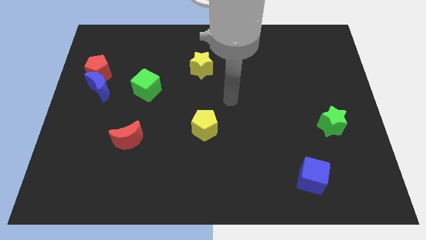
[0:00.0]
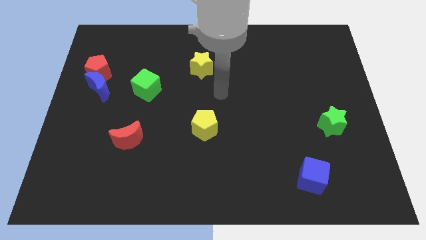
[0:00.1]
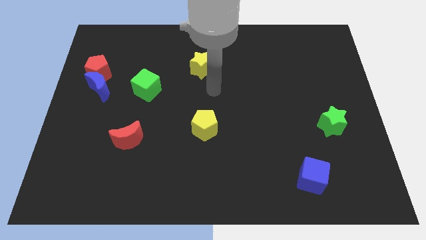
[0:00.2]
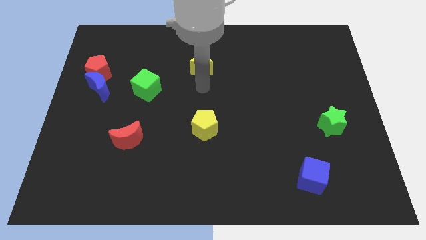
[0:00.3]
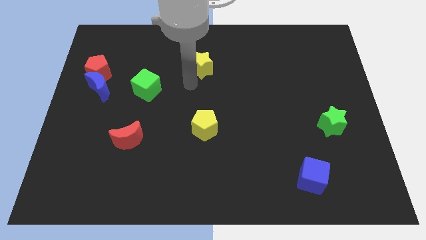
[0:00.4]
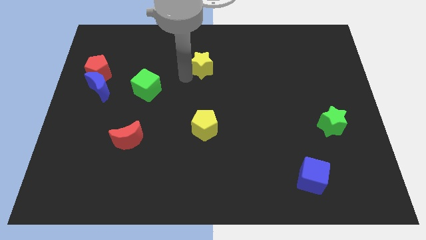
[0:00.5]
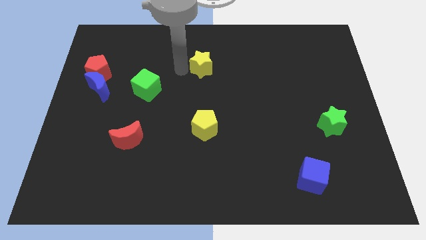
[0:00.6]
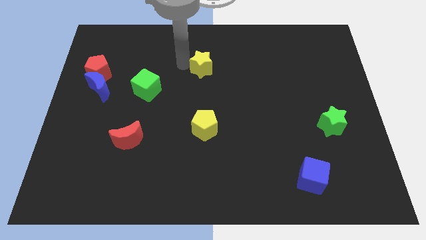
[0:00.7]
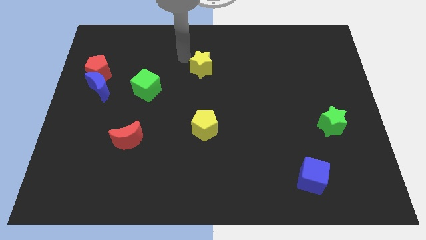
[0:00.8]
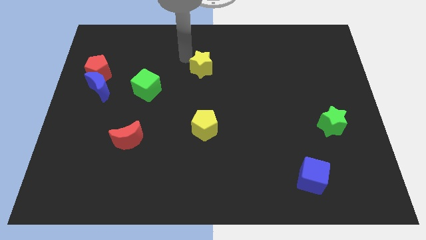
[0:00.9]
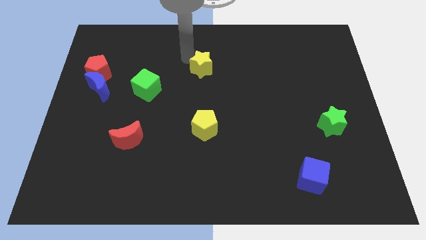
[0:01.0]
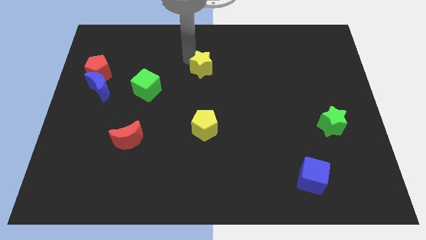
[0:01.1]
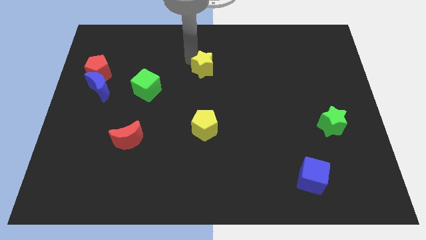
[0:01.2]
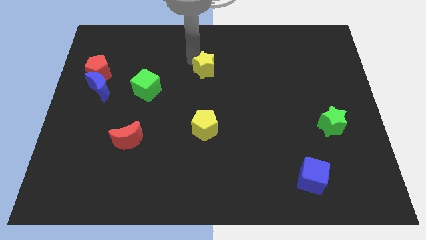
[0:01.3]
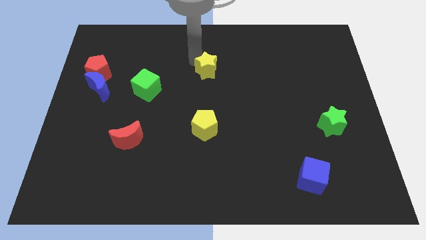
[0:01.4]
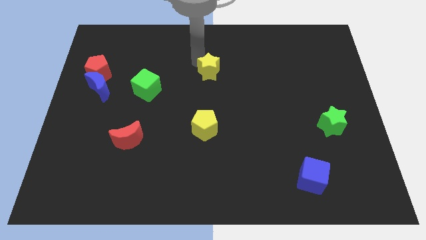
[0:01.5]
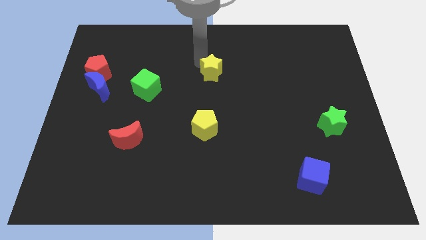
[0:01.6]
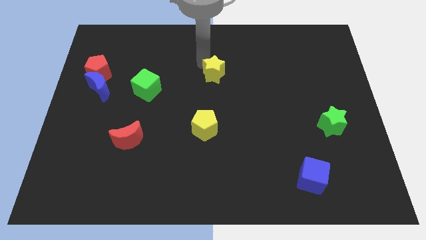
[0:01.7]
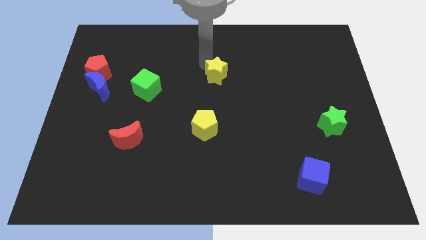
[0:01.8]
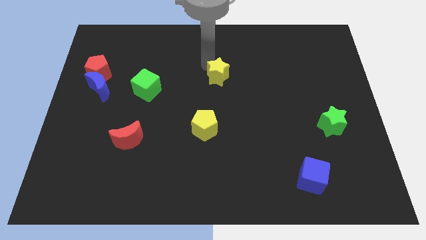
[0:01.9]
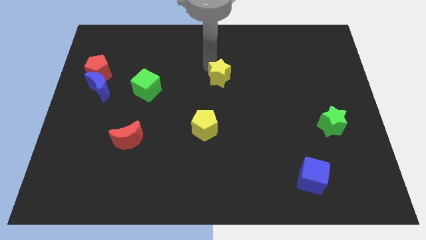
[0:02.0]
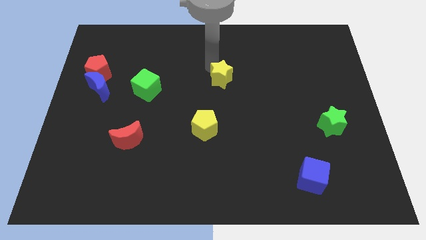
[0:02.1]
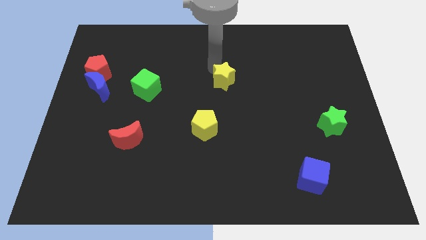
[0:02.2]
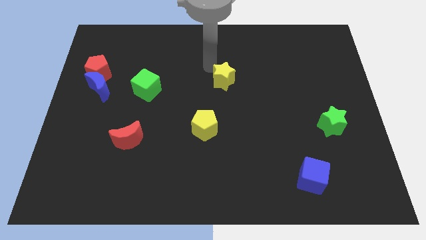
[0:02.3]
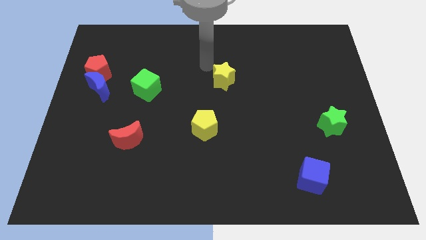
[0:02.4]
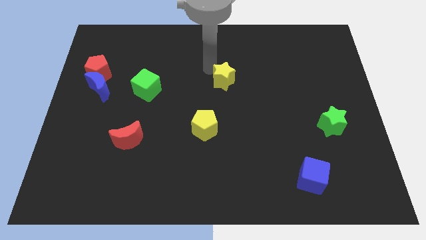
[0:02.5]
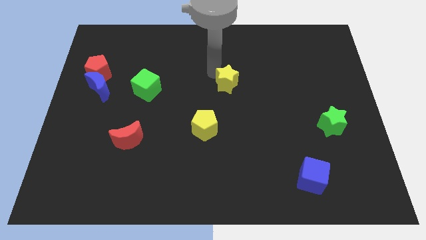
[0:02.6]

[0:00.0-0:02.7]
slightly move the yellow star downwards and right

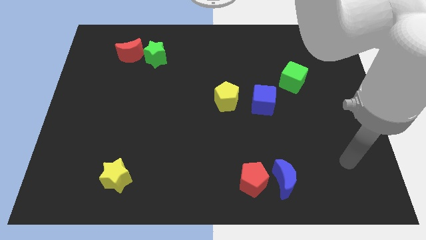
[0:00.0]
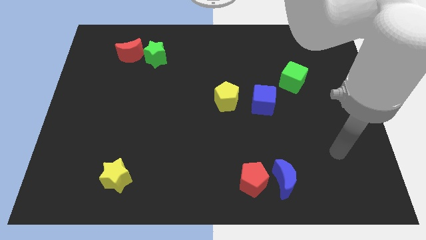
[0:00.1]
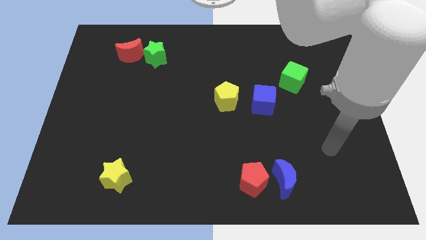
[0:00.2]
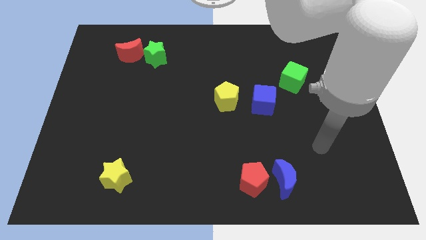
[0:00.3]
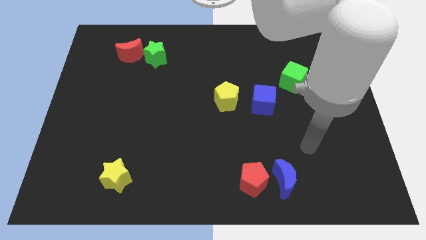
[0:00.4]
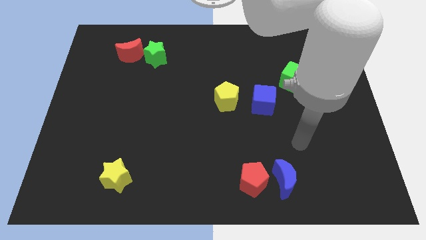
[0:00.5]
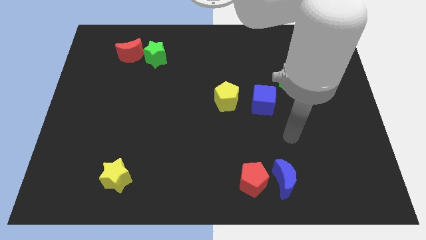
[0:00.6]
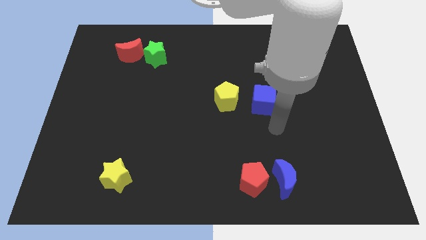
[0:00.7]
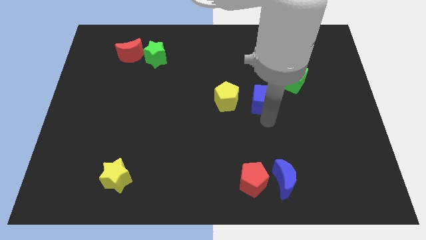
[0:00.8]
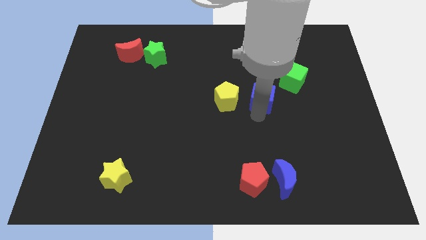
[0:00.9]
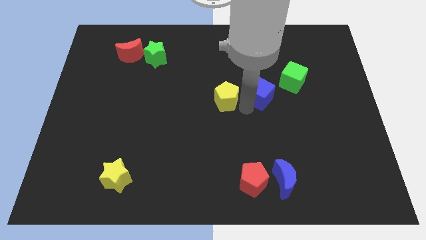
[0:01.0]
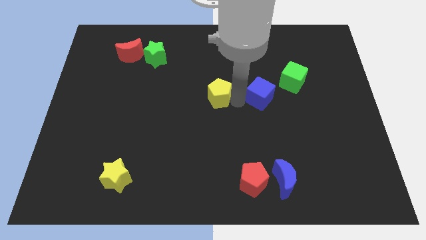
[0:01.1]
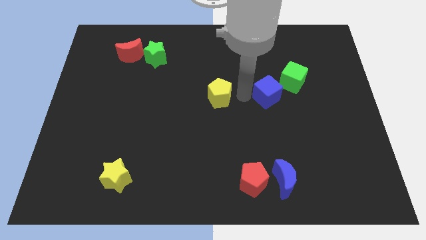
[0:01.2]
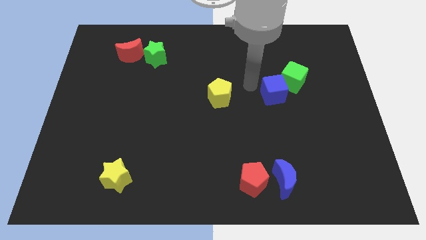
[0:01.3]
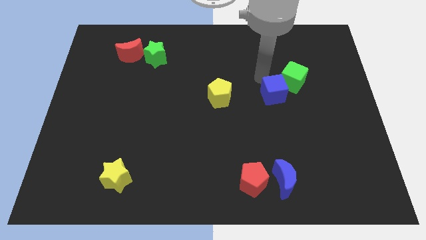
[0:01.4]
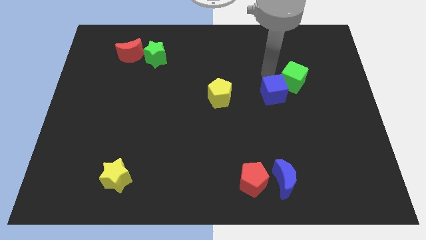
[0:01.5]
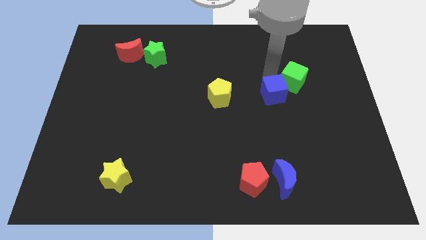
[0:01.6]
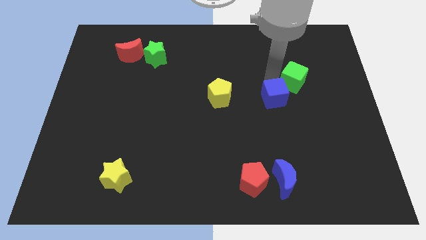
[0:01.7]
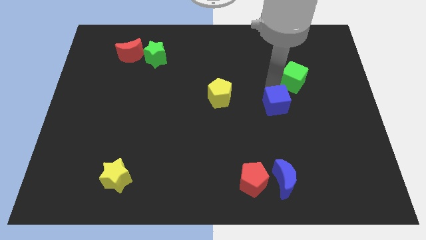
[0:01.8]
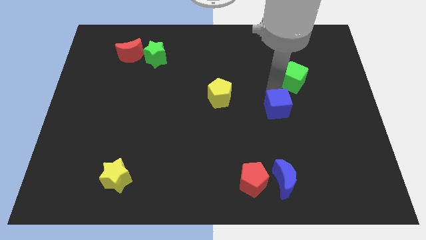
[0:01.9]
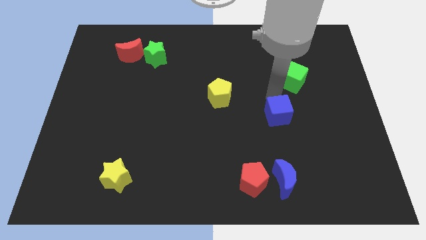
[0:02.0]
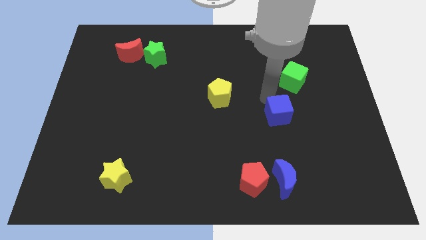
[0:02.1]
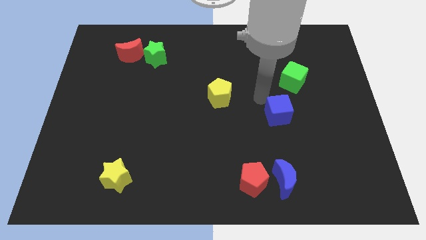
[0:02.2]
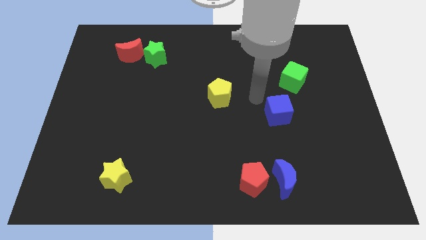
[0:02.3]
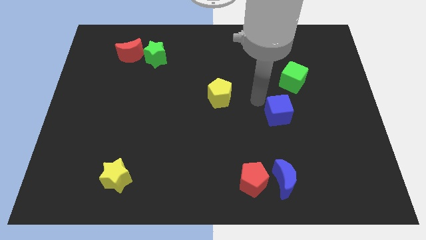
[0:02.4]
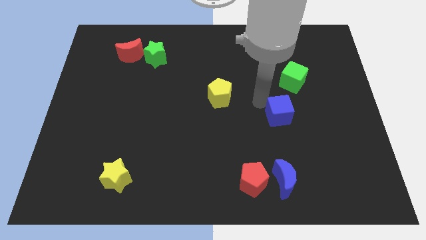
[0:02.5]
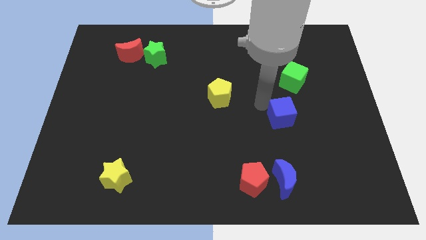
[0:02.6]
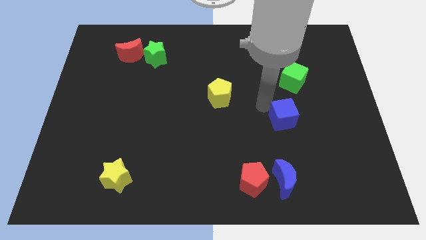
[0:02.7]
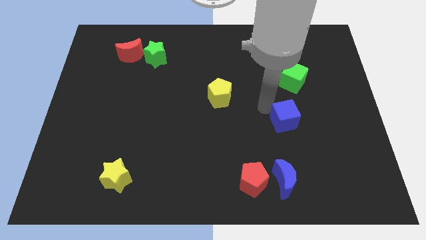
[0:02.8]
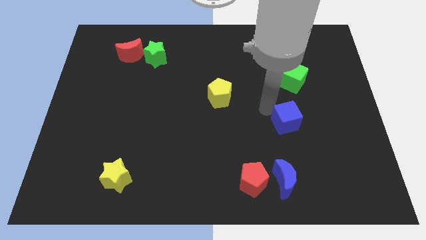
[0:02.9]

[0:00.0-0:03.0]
push the blue cube down and right diagonally a little

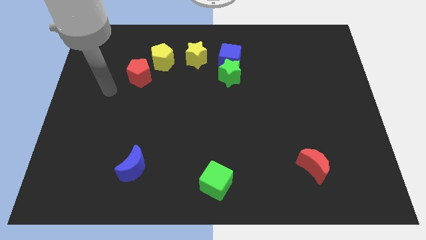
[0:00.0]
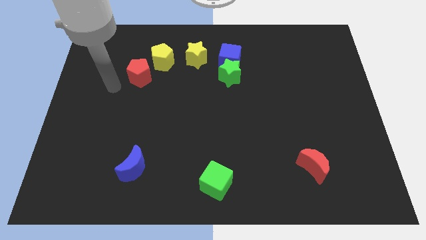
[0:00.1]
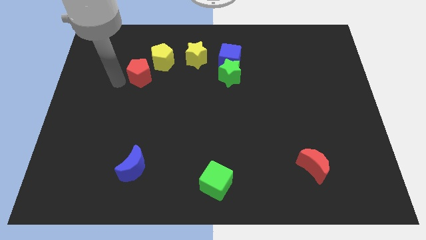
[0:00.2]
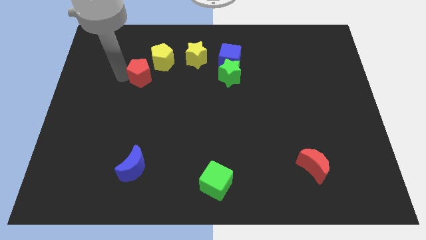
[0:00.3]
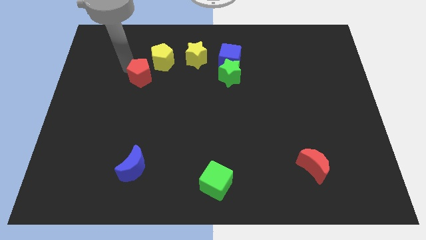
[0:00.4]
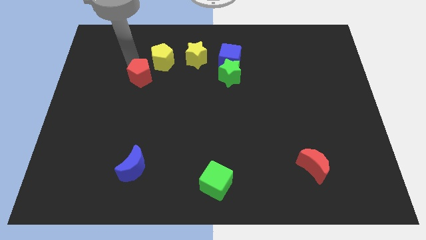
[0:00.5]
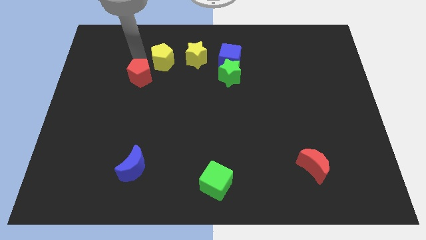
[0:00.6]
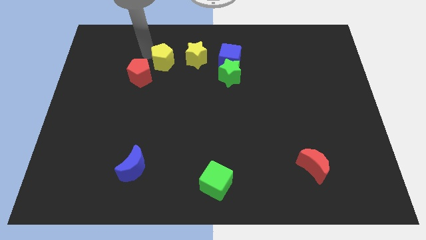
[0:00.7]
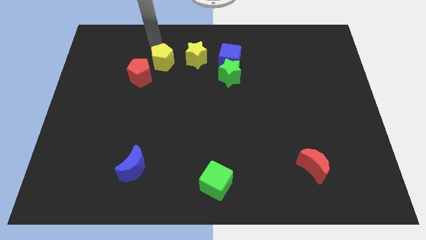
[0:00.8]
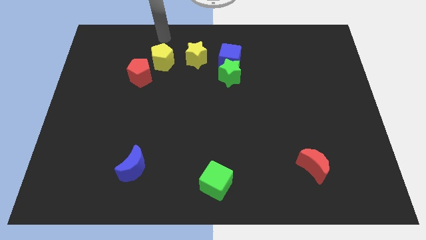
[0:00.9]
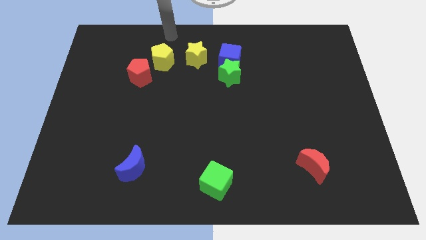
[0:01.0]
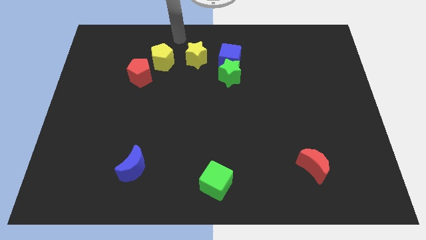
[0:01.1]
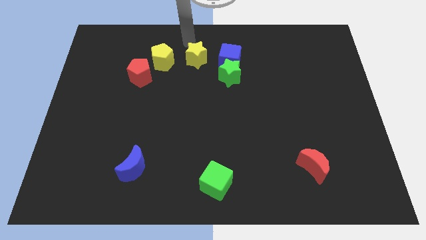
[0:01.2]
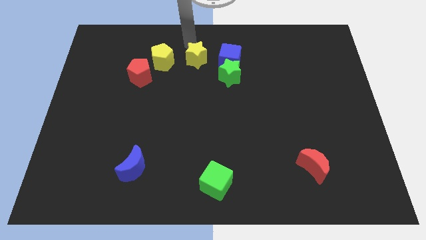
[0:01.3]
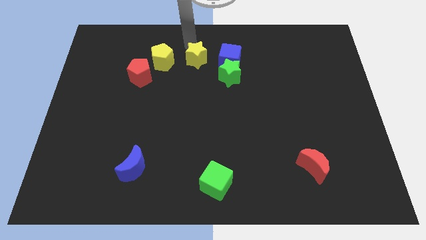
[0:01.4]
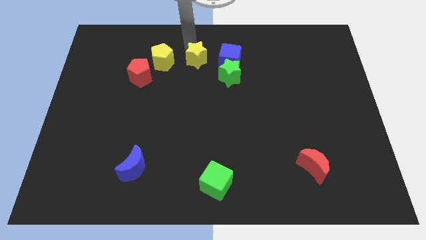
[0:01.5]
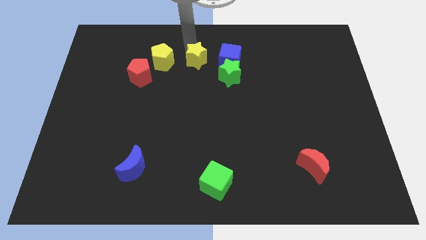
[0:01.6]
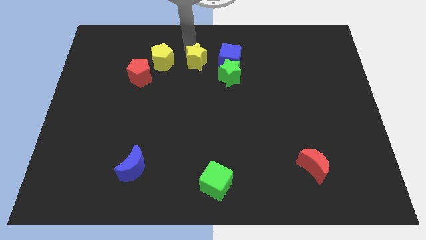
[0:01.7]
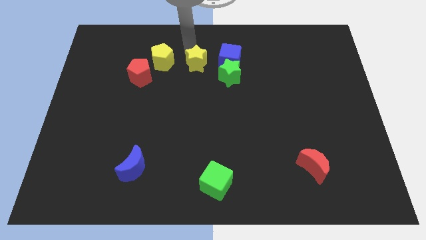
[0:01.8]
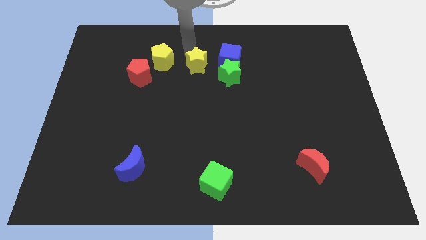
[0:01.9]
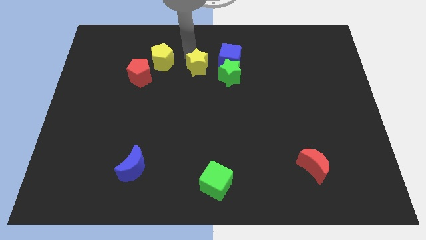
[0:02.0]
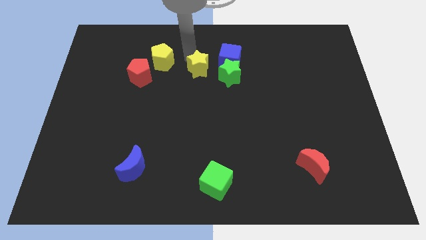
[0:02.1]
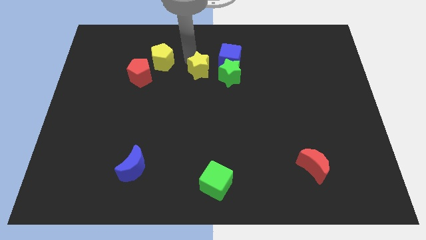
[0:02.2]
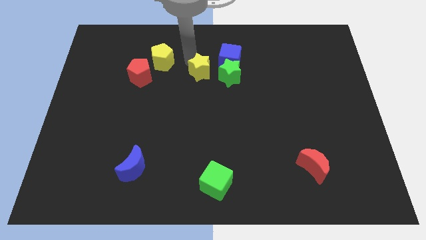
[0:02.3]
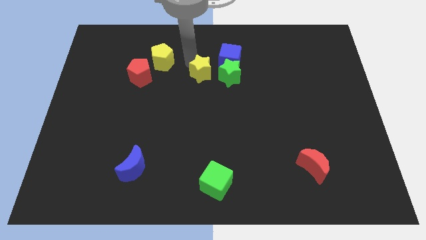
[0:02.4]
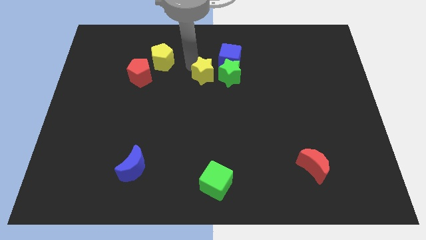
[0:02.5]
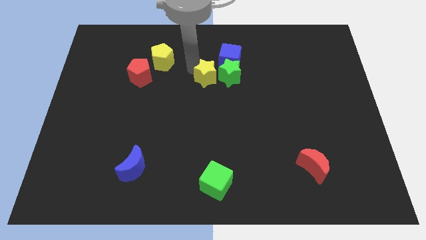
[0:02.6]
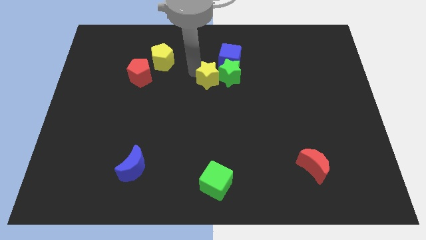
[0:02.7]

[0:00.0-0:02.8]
move the yellow star down and then right somewhat
